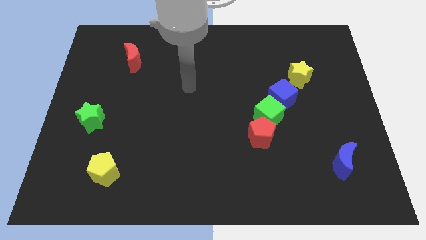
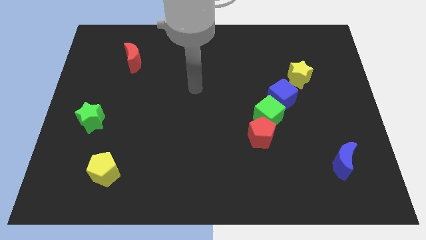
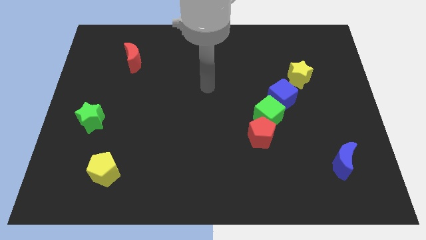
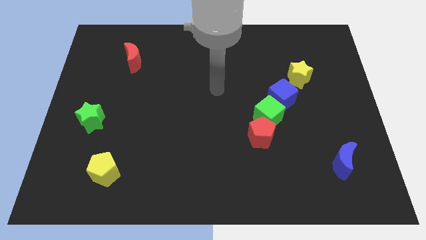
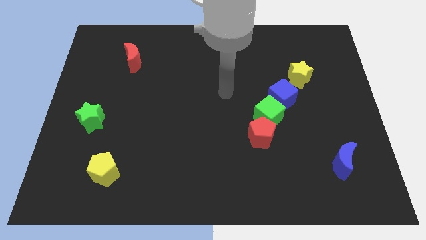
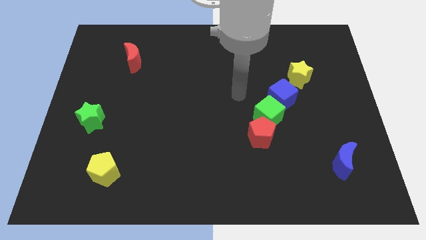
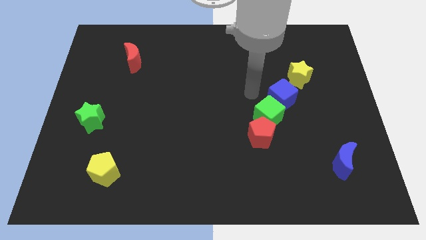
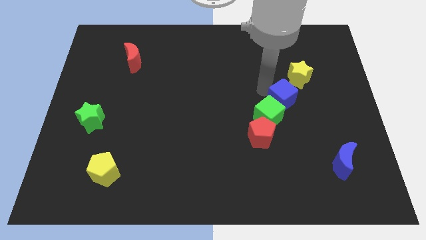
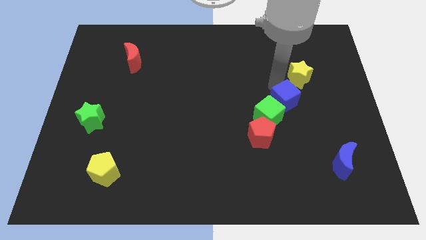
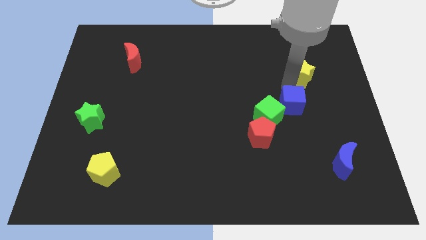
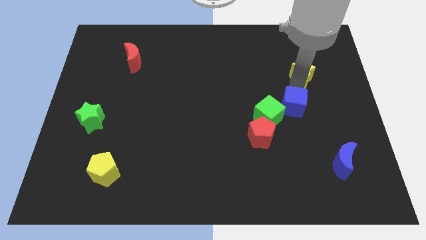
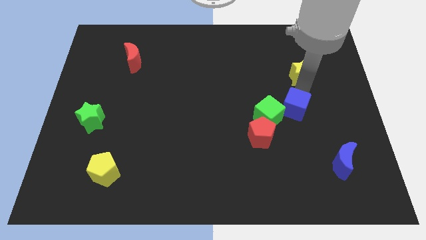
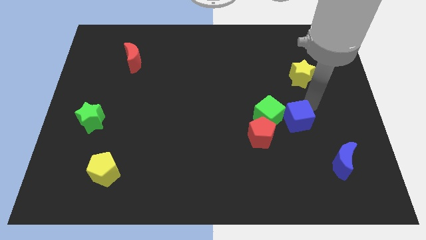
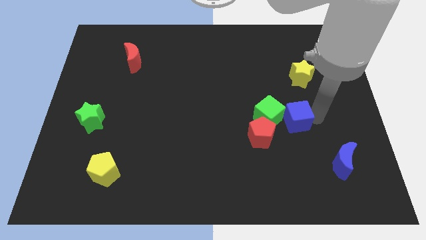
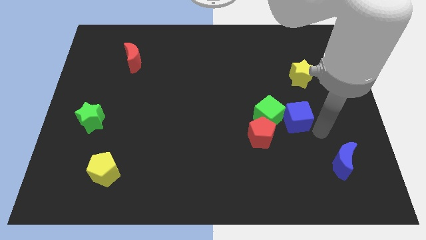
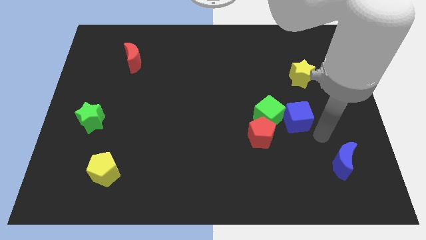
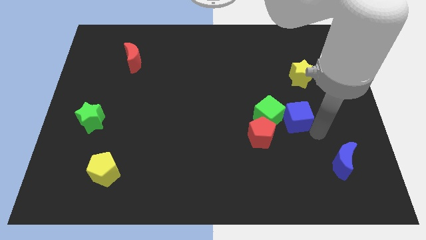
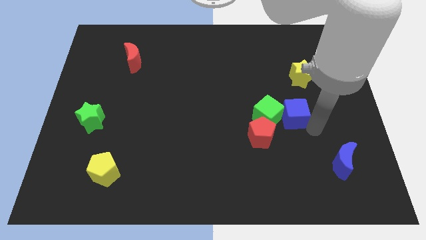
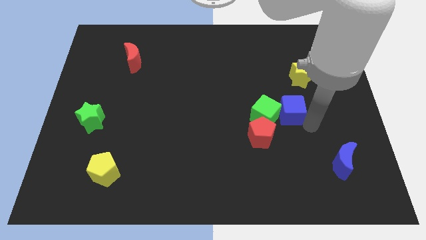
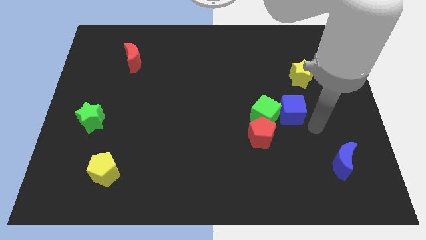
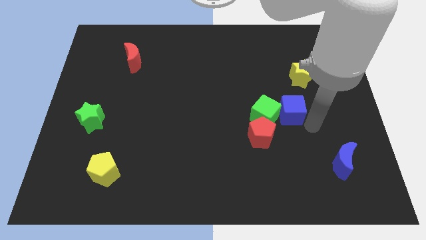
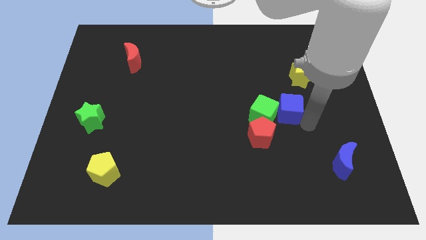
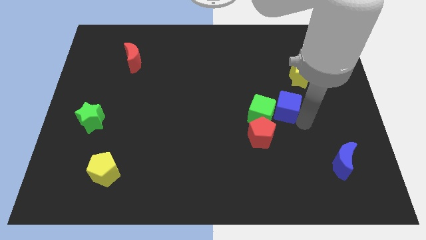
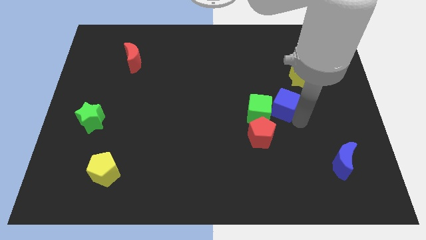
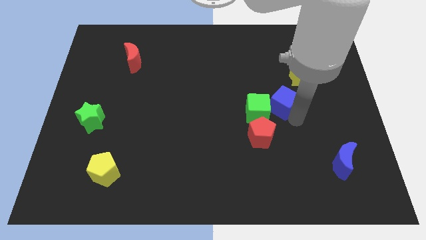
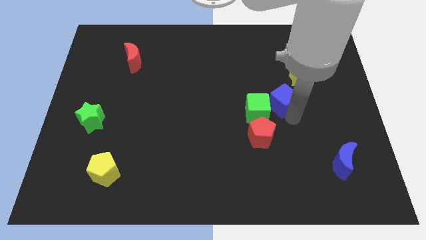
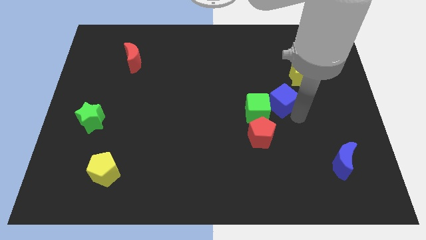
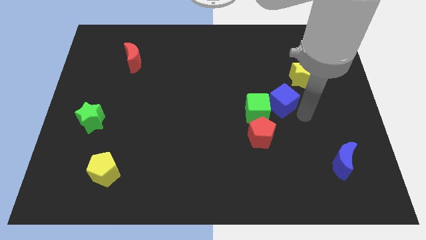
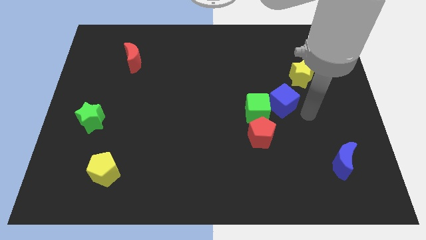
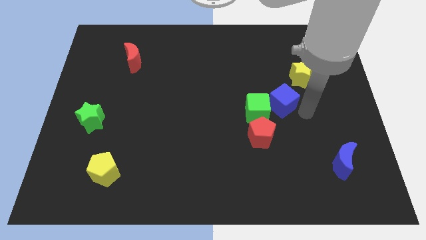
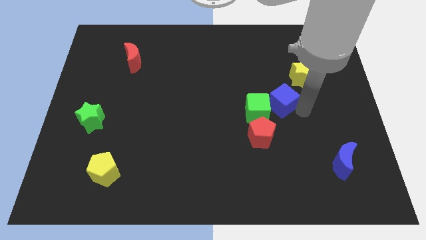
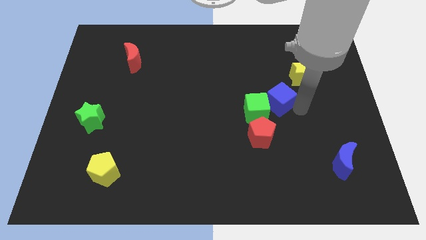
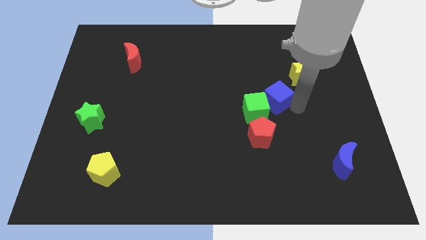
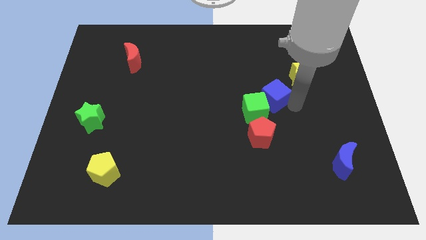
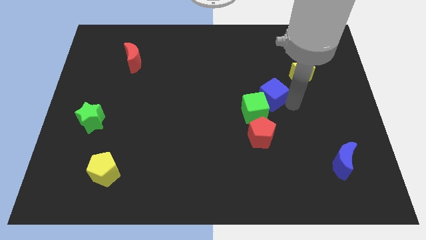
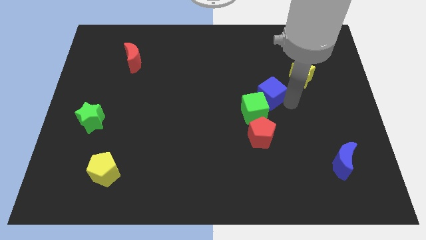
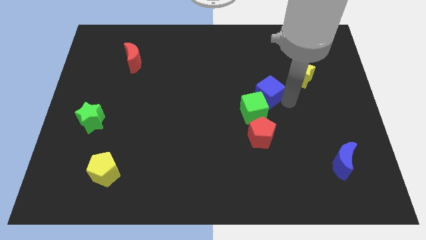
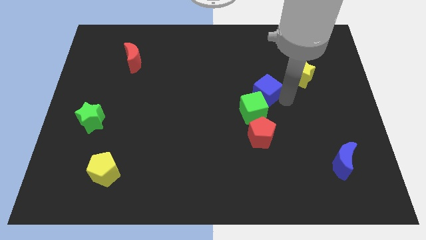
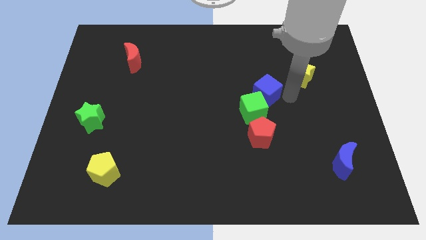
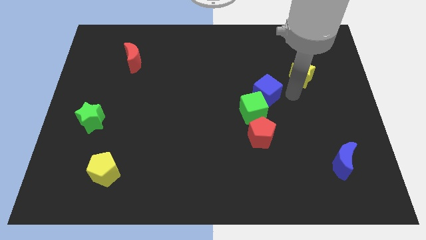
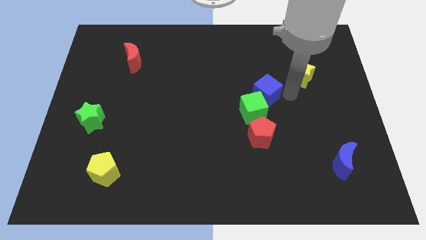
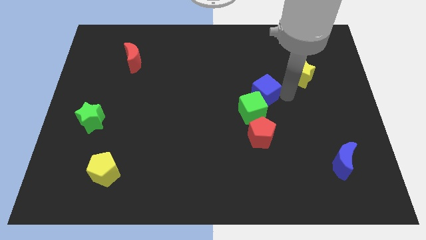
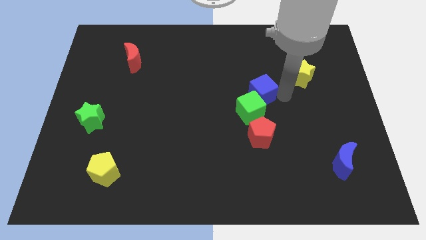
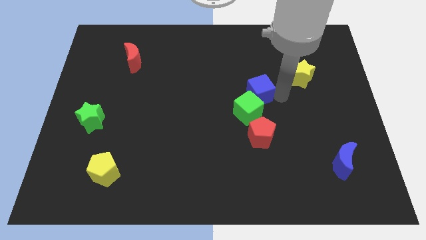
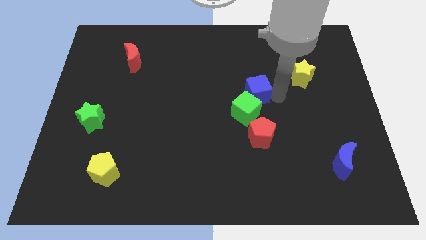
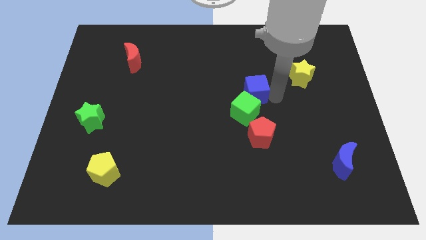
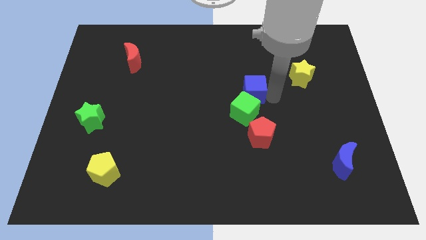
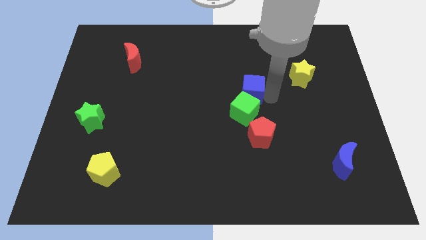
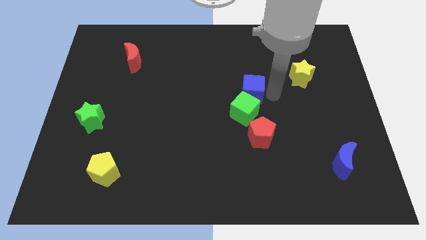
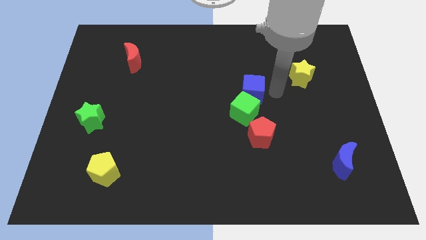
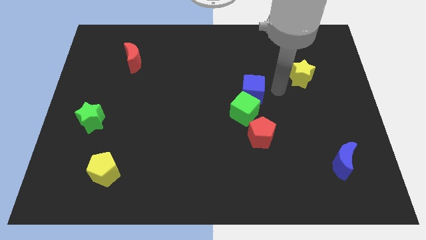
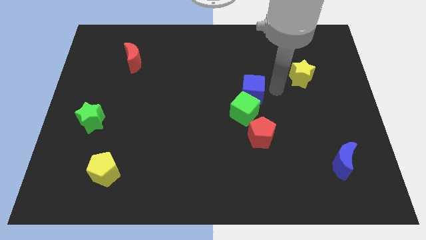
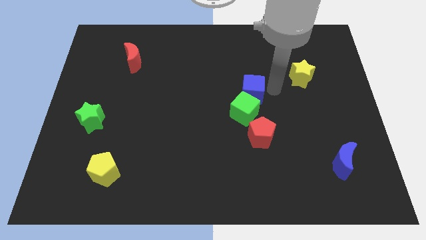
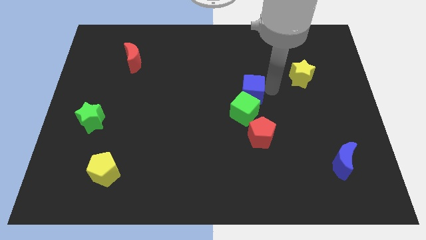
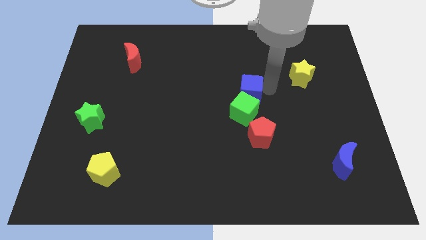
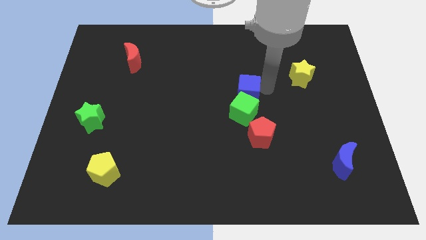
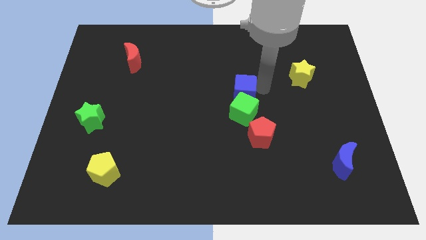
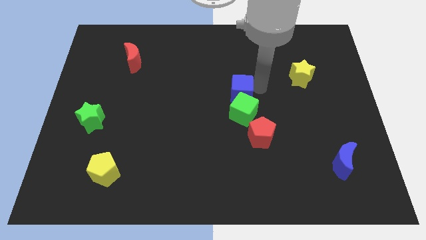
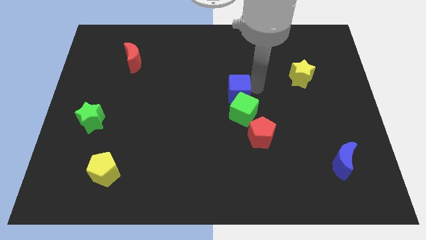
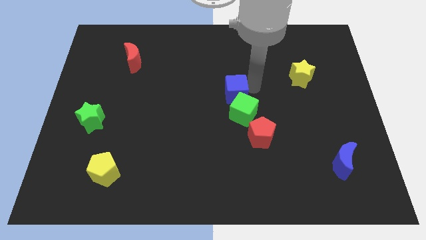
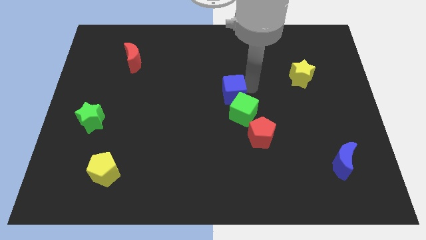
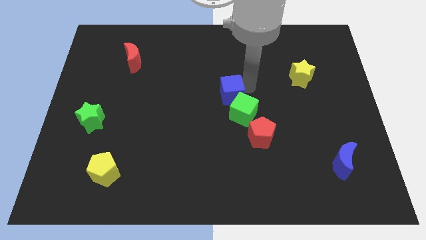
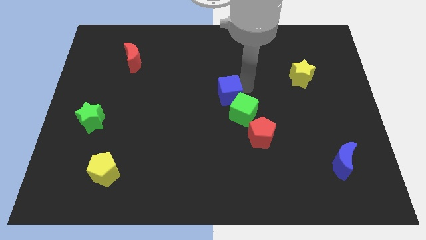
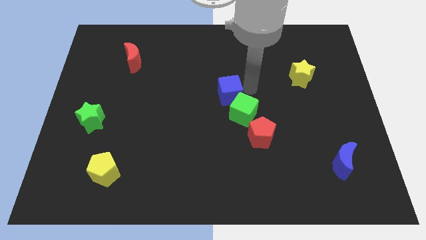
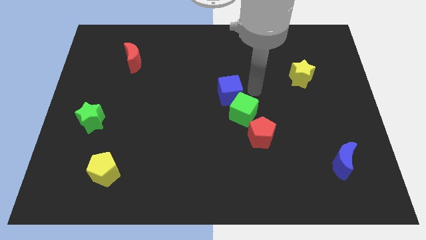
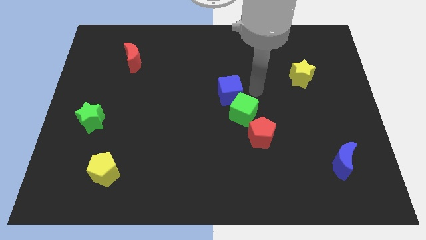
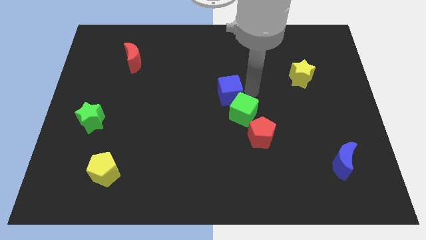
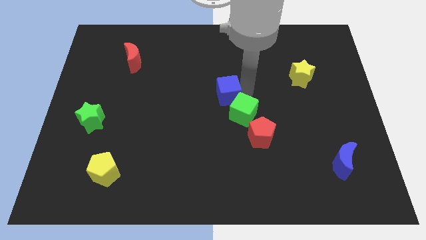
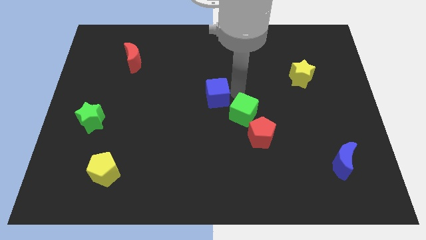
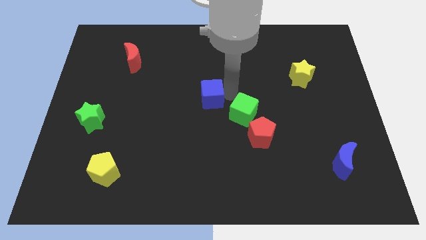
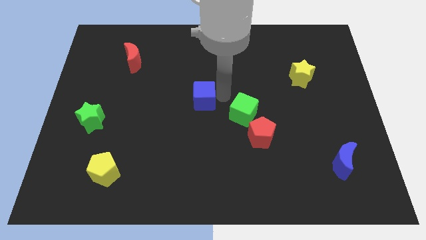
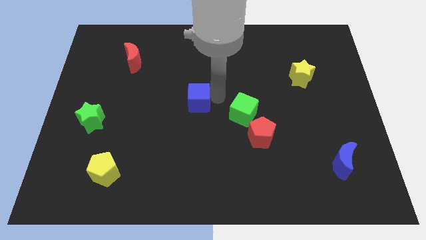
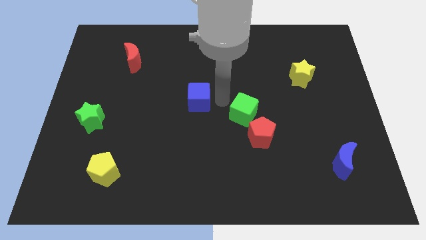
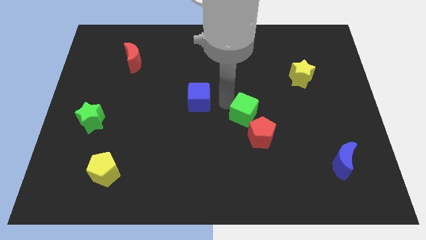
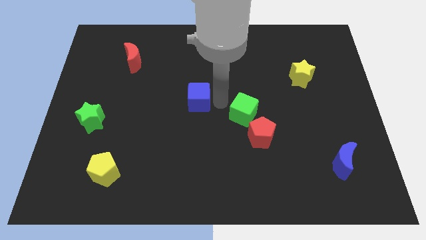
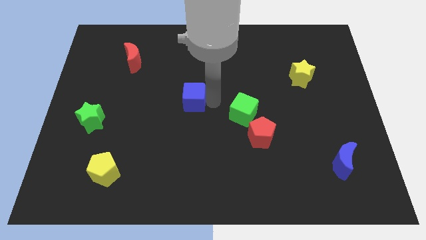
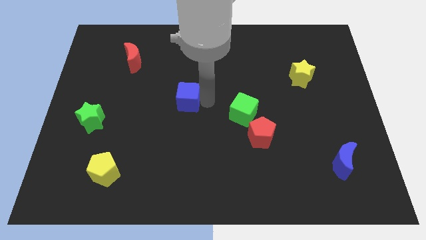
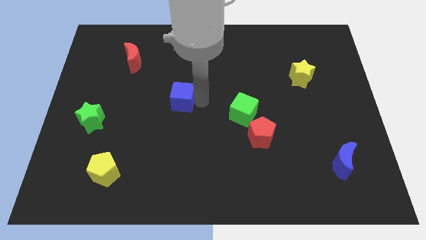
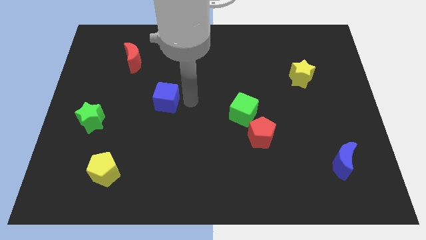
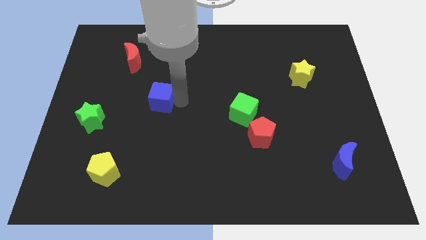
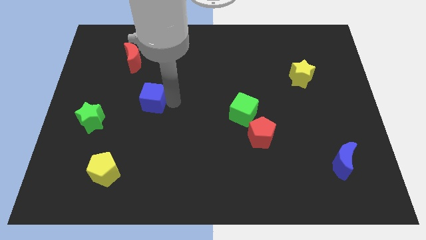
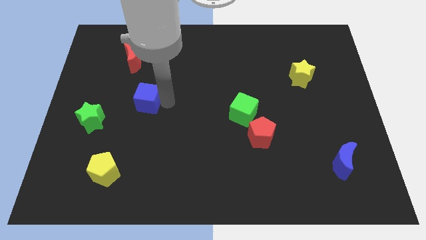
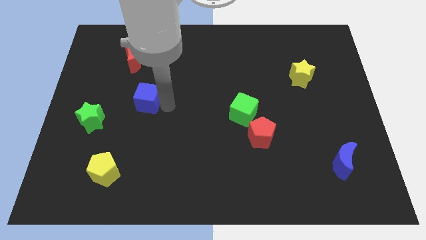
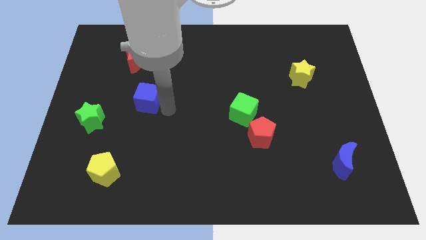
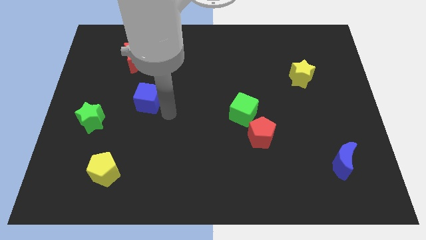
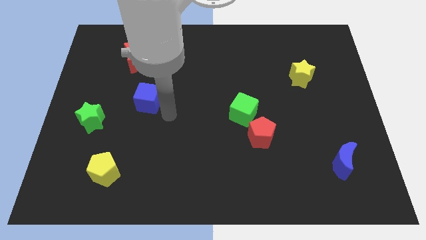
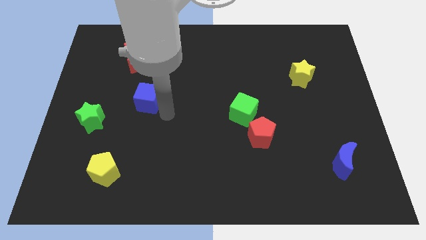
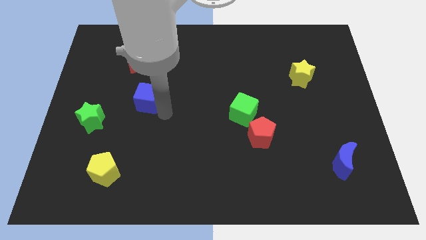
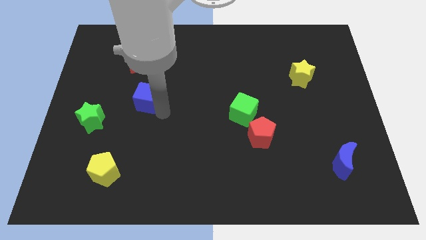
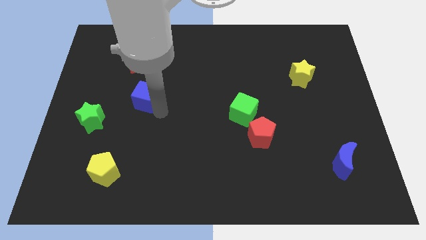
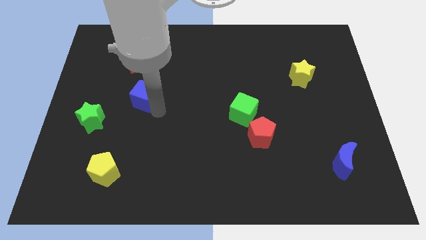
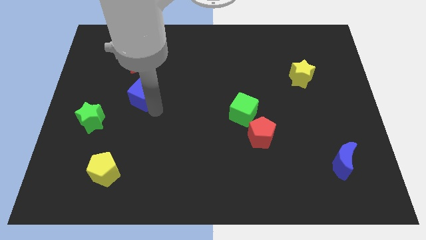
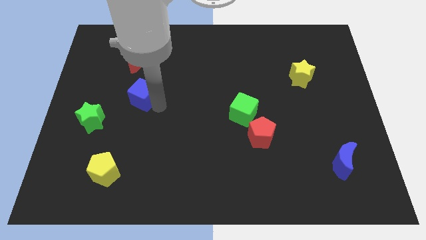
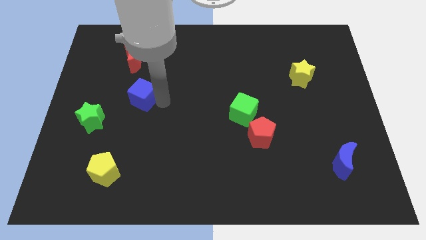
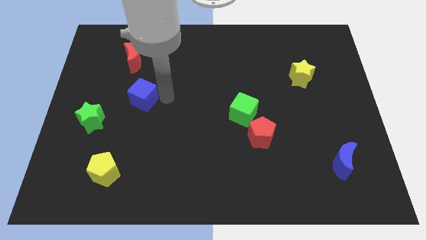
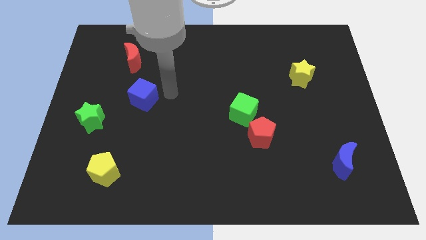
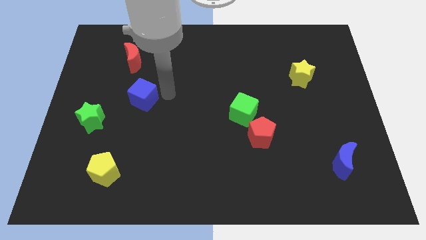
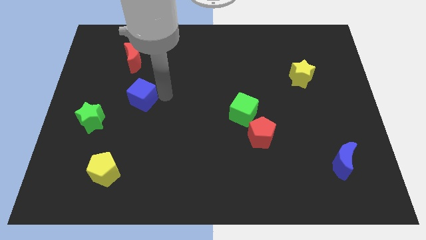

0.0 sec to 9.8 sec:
push the blue cube to the top right side of the green star
